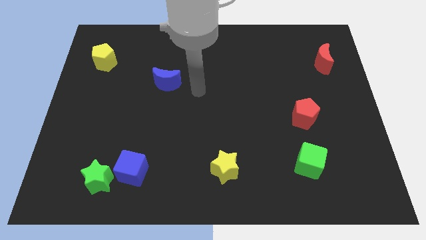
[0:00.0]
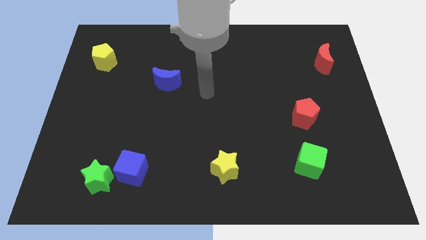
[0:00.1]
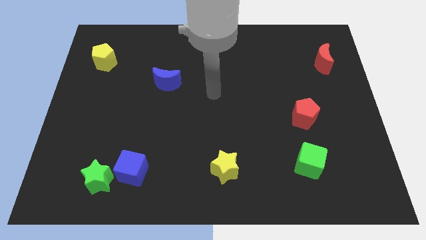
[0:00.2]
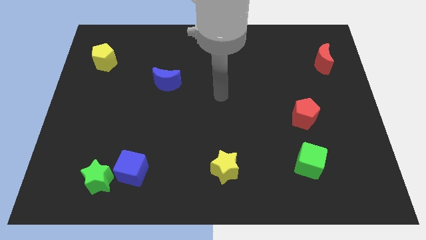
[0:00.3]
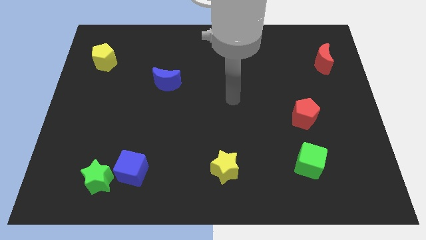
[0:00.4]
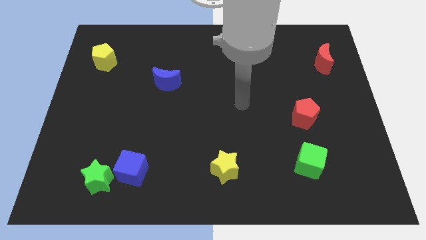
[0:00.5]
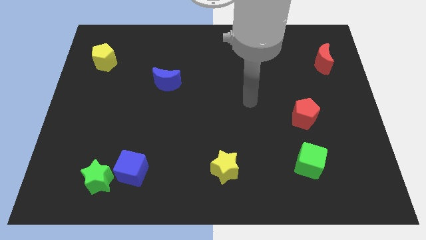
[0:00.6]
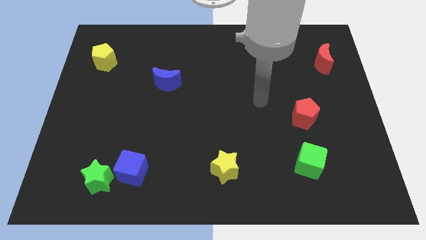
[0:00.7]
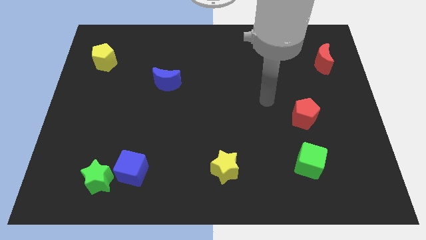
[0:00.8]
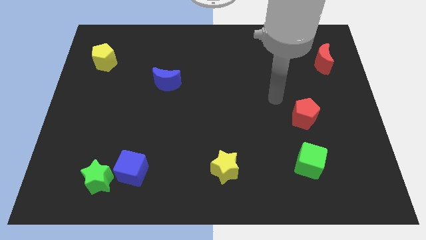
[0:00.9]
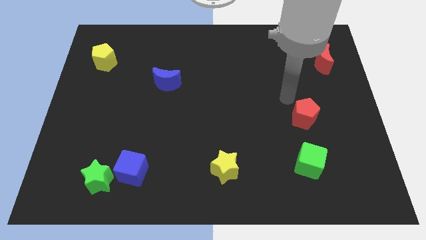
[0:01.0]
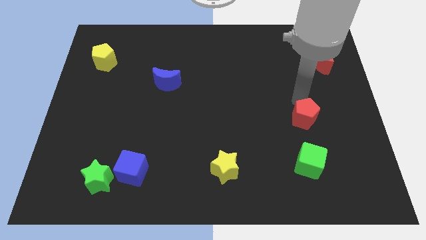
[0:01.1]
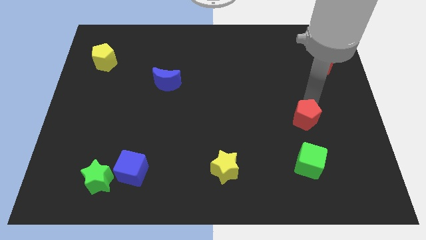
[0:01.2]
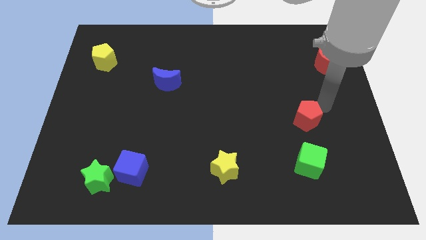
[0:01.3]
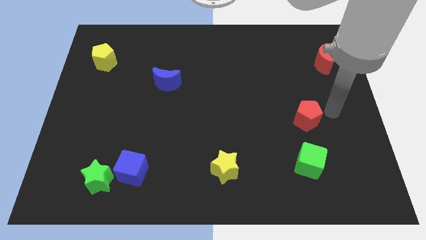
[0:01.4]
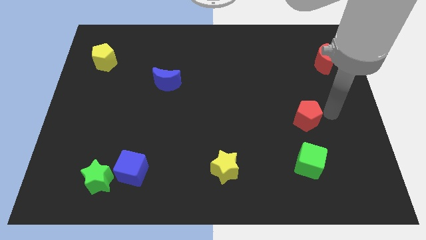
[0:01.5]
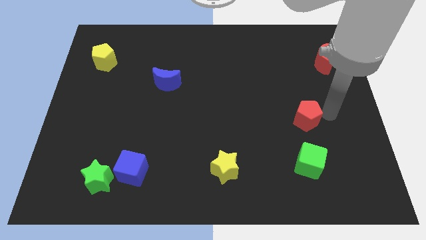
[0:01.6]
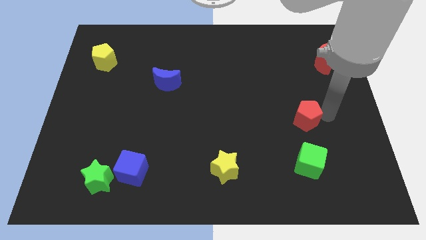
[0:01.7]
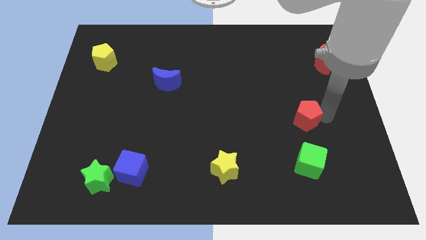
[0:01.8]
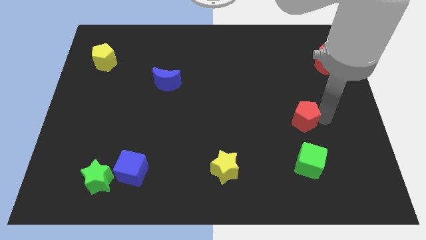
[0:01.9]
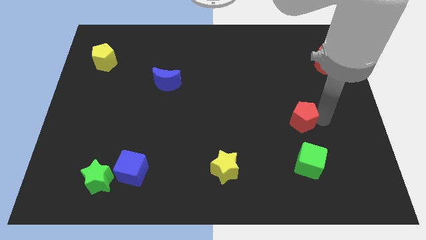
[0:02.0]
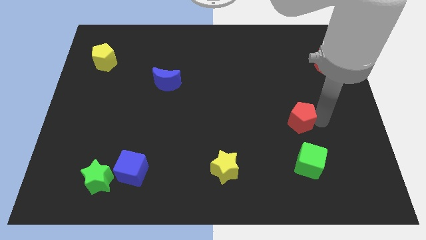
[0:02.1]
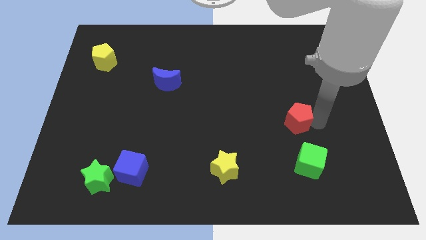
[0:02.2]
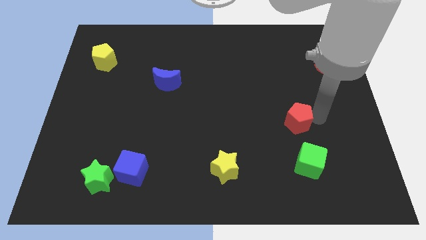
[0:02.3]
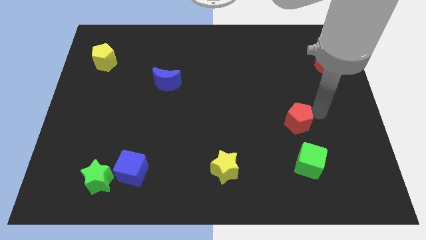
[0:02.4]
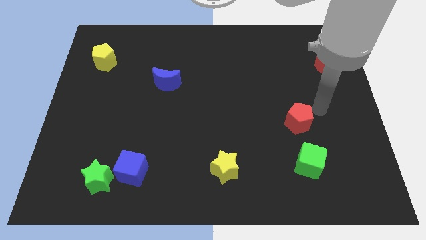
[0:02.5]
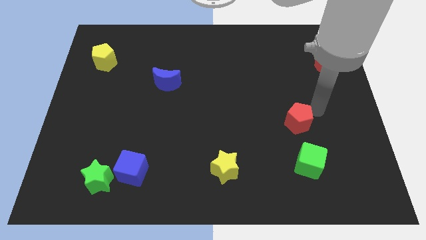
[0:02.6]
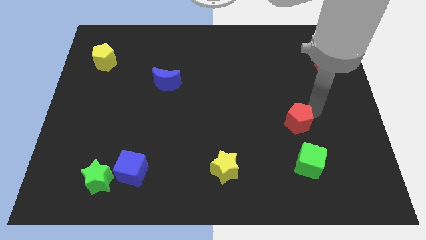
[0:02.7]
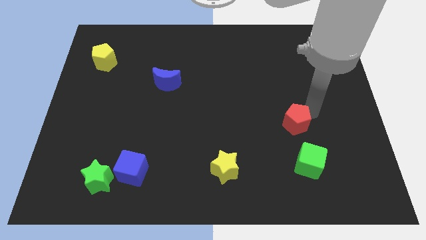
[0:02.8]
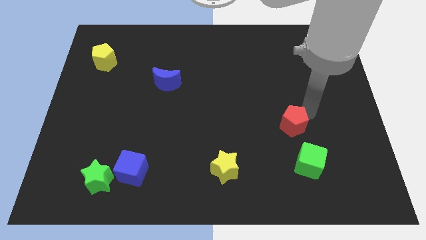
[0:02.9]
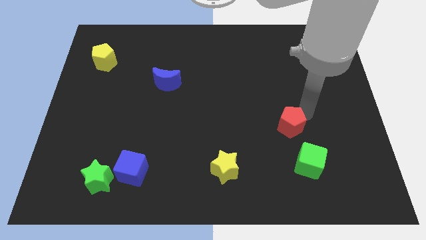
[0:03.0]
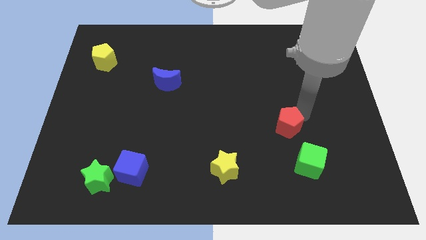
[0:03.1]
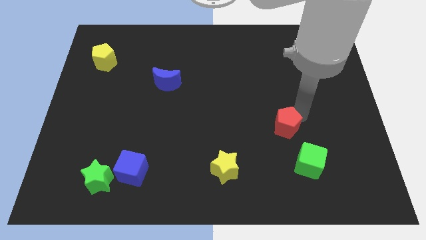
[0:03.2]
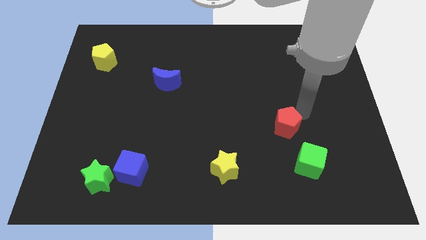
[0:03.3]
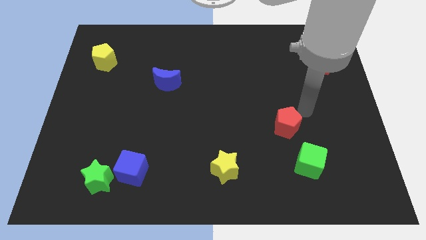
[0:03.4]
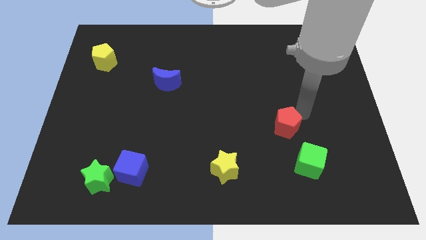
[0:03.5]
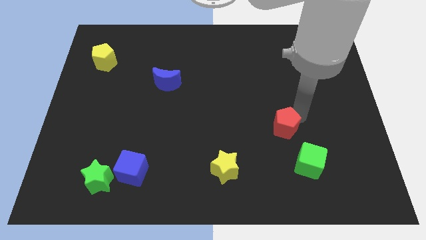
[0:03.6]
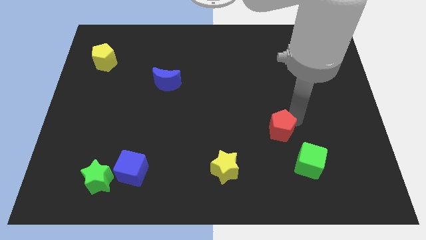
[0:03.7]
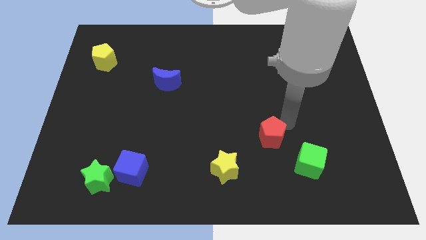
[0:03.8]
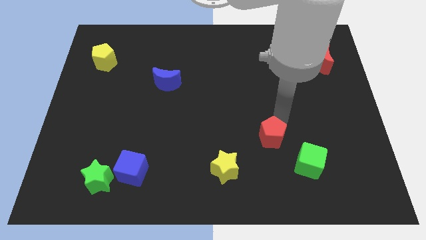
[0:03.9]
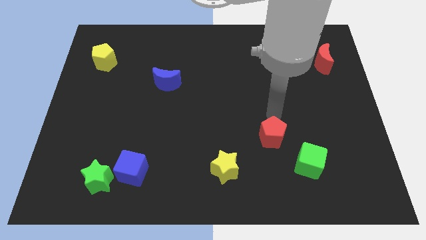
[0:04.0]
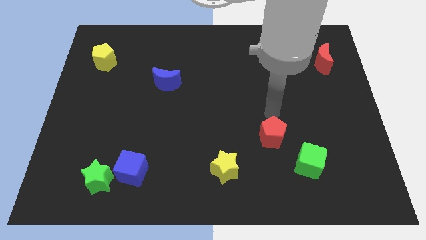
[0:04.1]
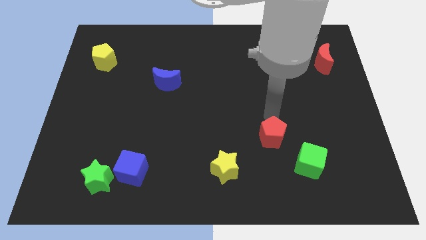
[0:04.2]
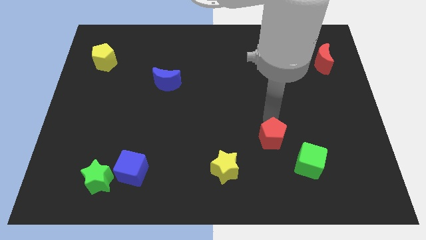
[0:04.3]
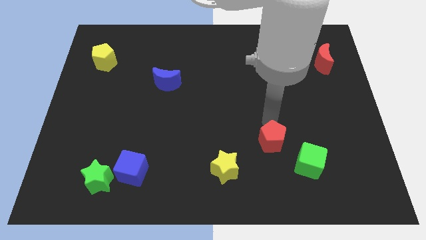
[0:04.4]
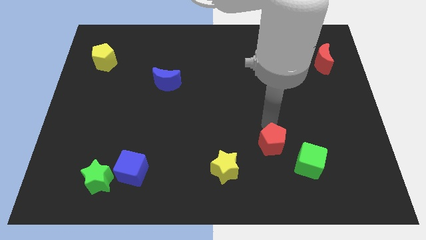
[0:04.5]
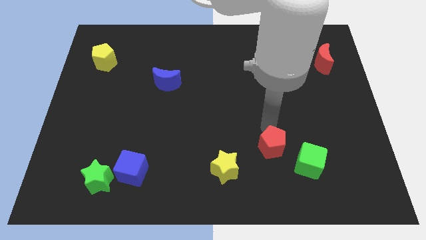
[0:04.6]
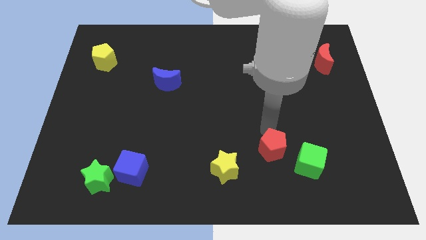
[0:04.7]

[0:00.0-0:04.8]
push the red pentagon to the right of the yellow star

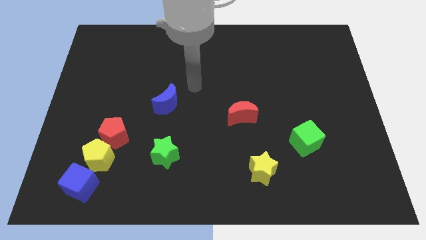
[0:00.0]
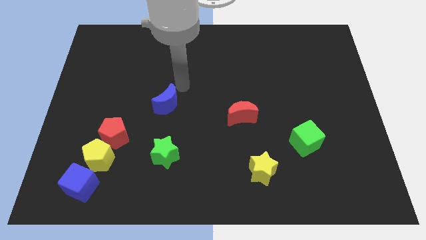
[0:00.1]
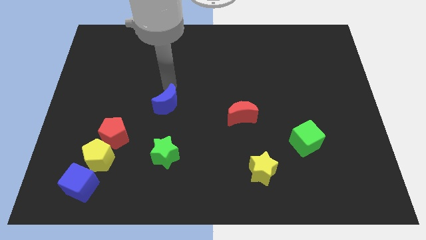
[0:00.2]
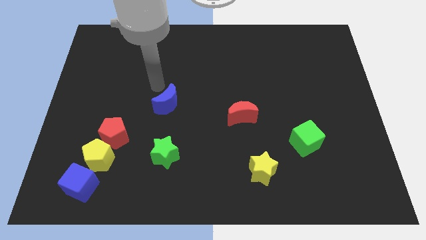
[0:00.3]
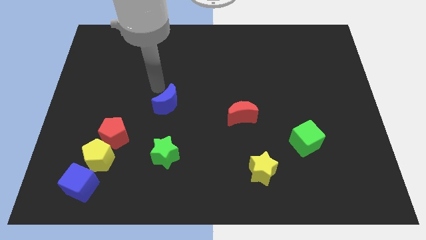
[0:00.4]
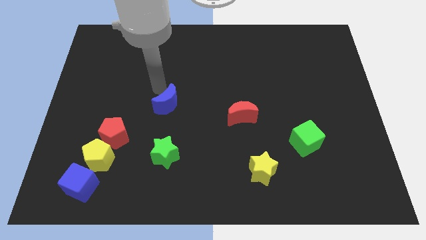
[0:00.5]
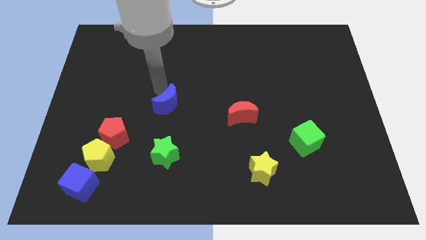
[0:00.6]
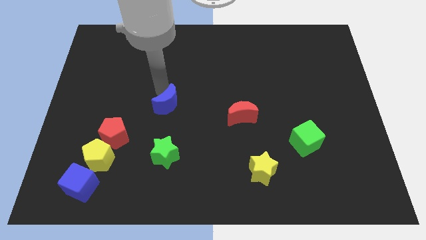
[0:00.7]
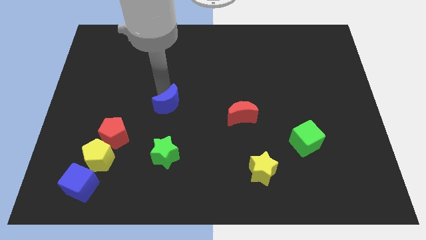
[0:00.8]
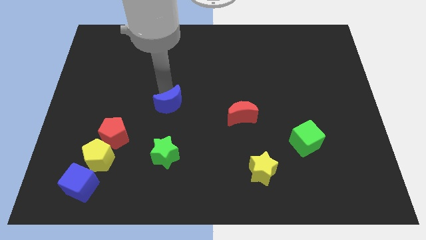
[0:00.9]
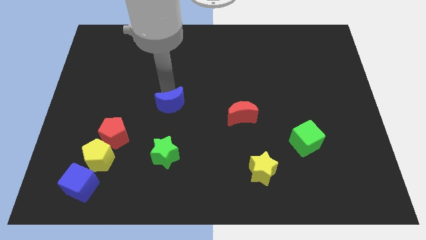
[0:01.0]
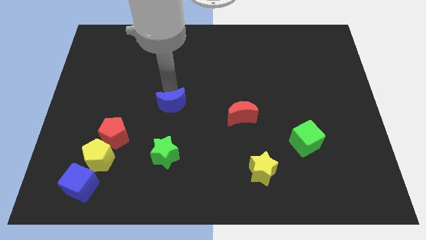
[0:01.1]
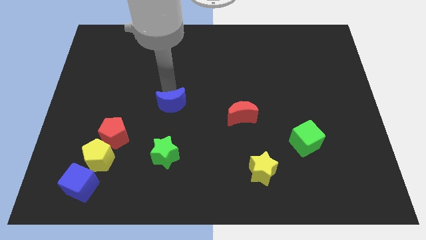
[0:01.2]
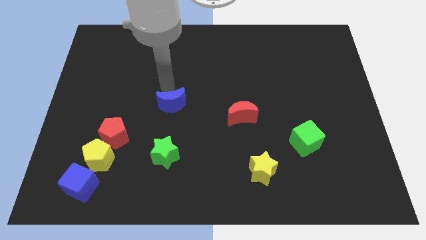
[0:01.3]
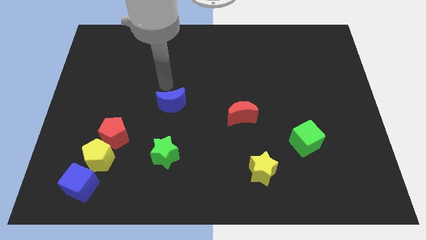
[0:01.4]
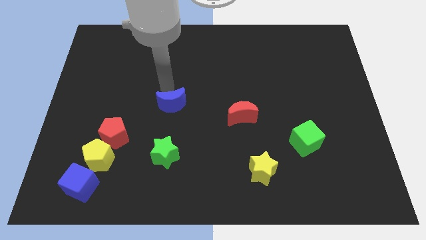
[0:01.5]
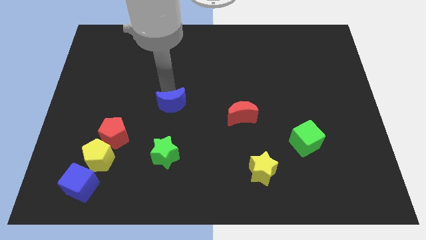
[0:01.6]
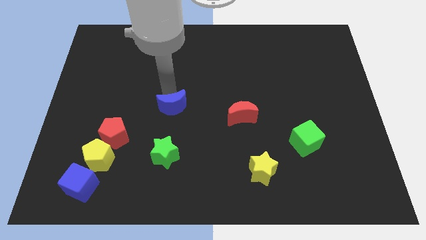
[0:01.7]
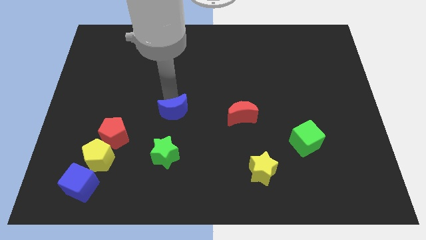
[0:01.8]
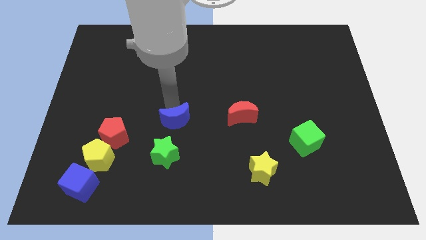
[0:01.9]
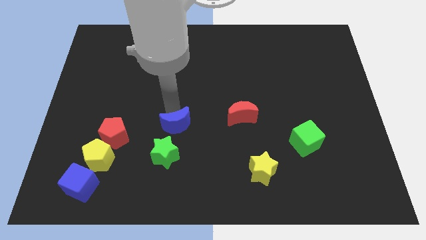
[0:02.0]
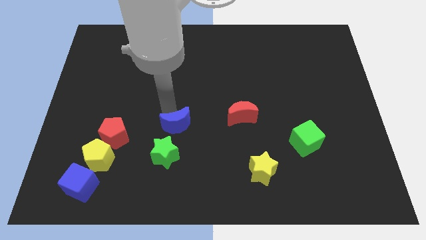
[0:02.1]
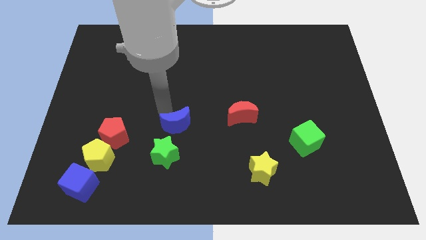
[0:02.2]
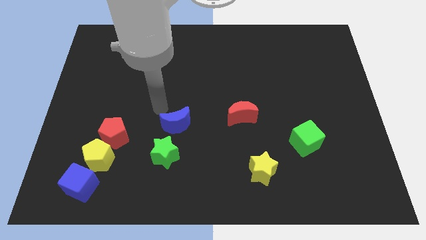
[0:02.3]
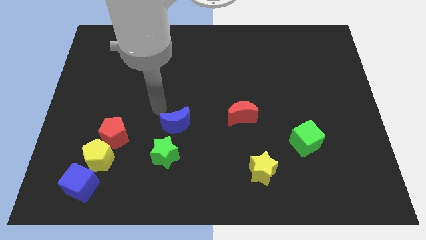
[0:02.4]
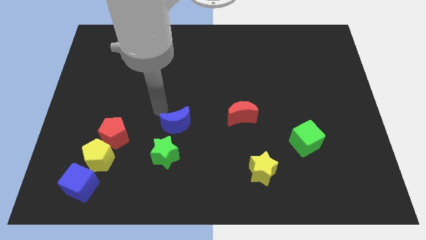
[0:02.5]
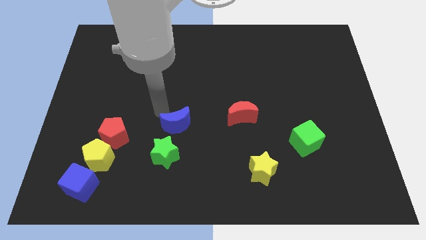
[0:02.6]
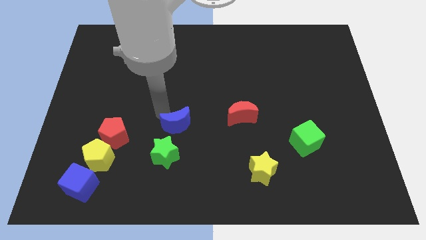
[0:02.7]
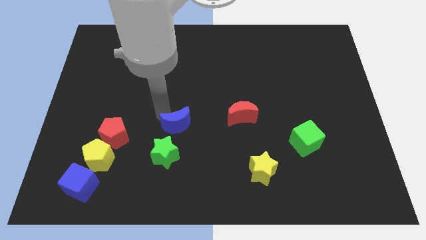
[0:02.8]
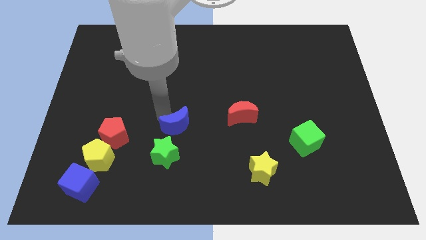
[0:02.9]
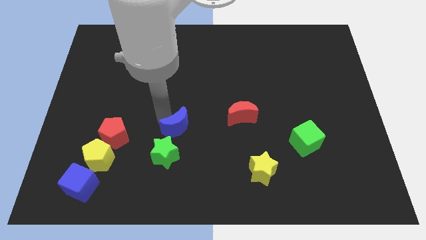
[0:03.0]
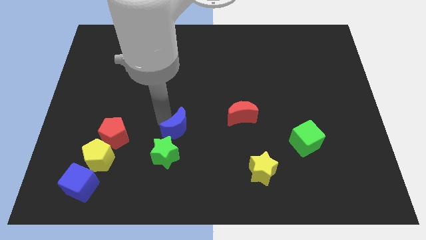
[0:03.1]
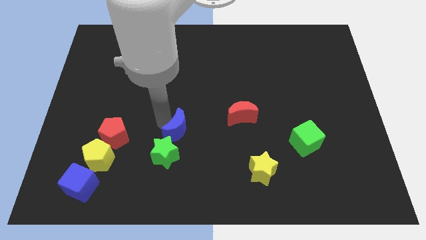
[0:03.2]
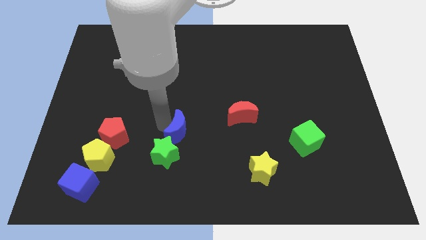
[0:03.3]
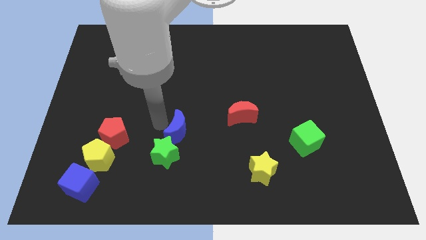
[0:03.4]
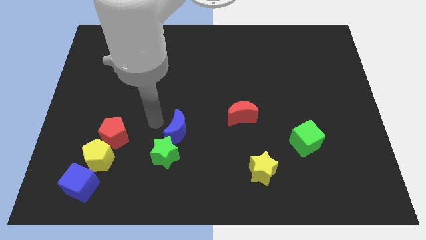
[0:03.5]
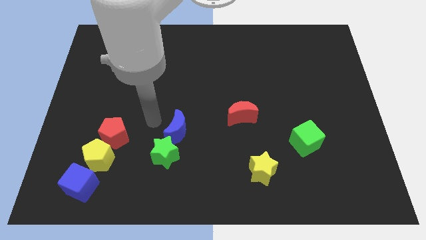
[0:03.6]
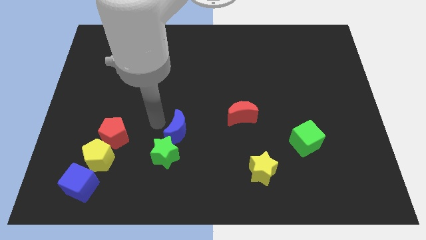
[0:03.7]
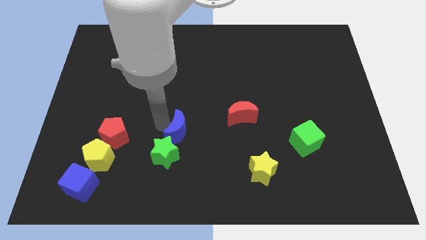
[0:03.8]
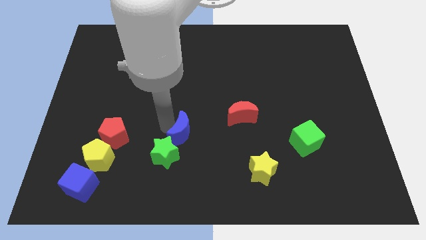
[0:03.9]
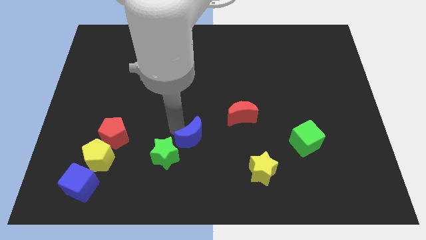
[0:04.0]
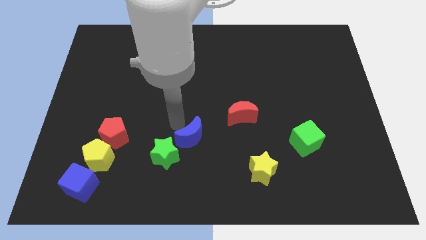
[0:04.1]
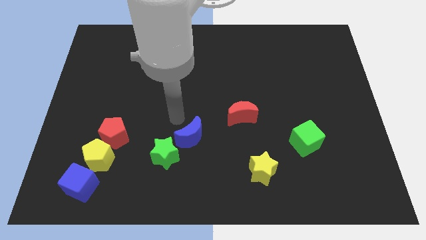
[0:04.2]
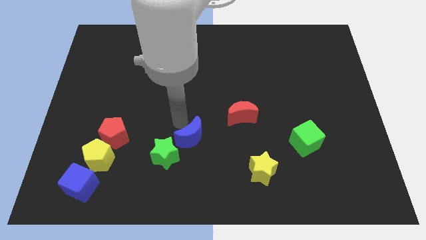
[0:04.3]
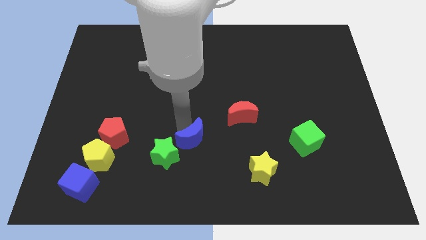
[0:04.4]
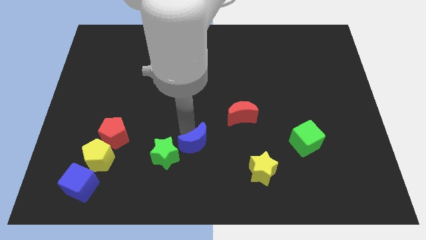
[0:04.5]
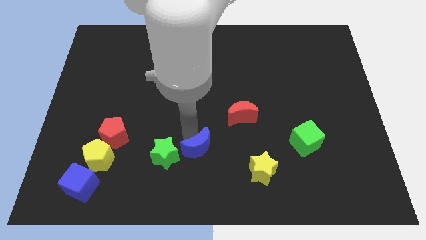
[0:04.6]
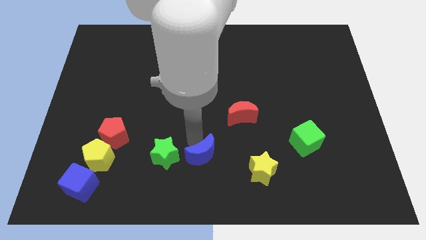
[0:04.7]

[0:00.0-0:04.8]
push the blue moon left of the yellow star
